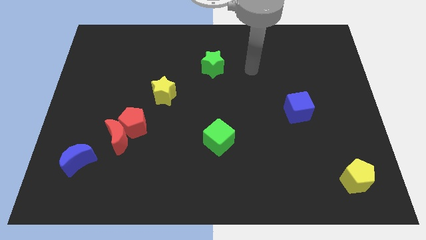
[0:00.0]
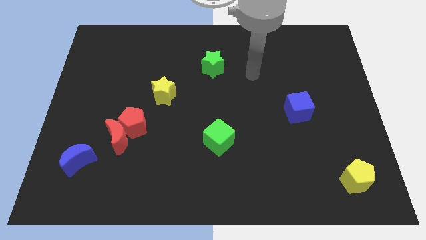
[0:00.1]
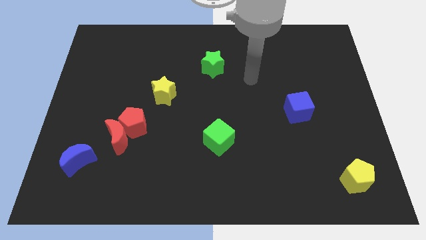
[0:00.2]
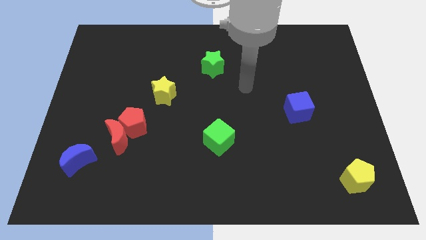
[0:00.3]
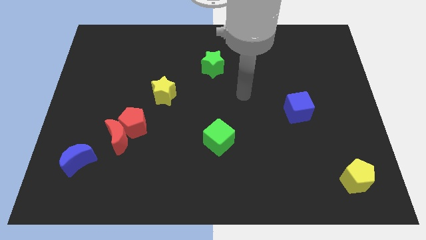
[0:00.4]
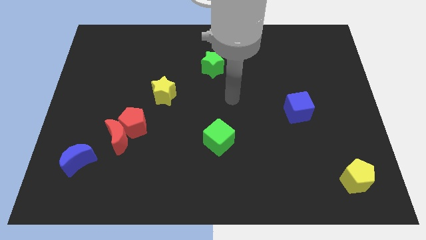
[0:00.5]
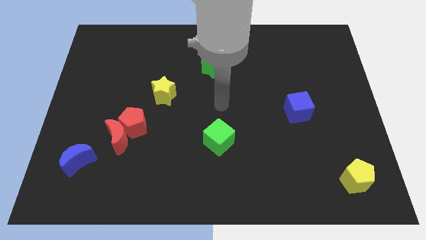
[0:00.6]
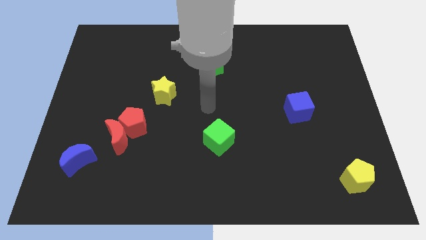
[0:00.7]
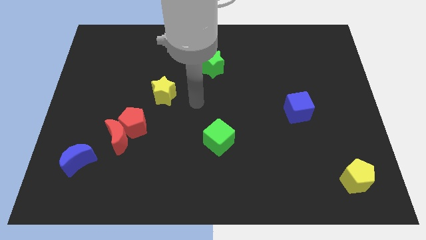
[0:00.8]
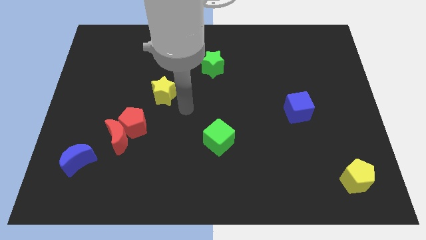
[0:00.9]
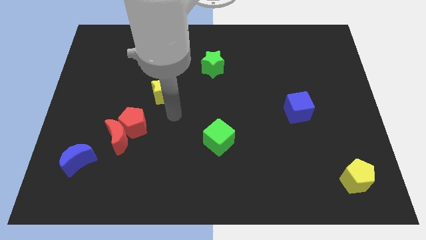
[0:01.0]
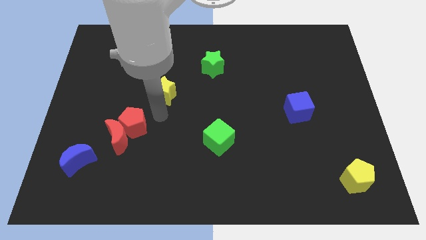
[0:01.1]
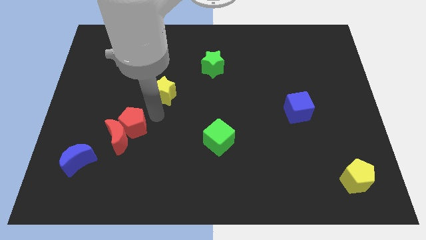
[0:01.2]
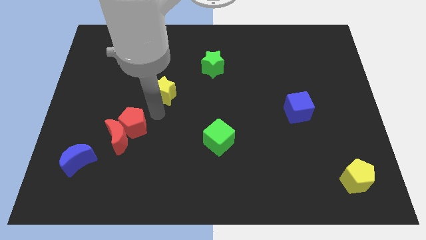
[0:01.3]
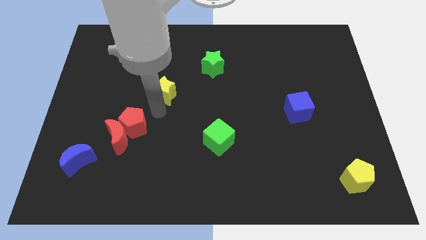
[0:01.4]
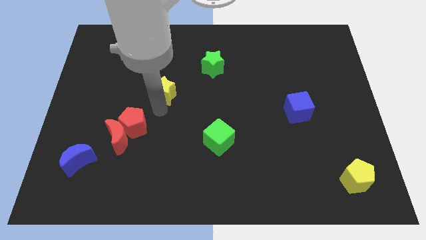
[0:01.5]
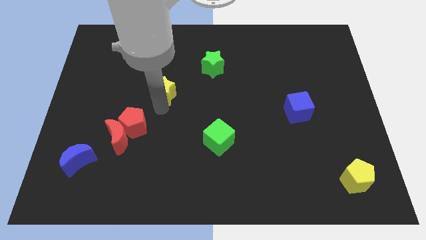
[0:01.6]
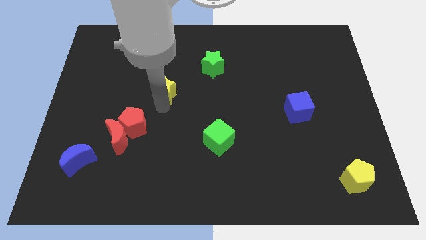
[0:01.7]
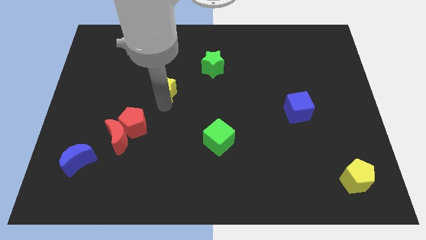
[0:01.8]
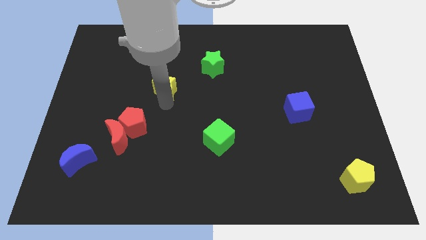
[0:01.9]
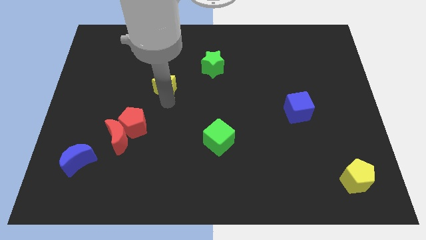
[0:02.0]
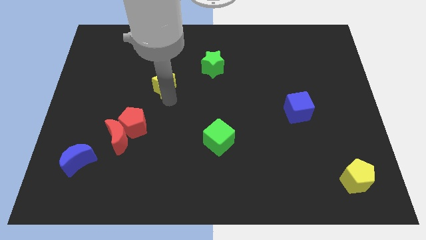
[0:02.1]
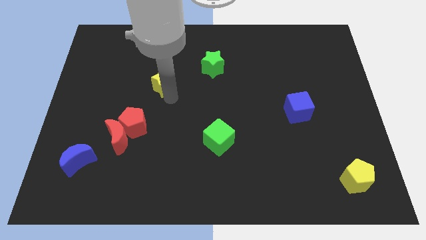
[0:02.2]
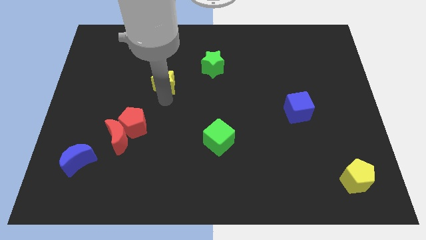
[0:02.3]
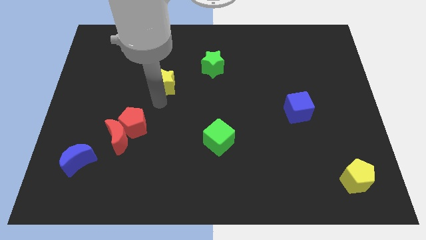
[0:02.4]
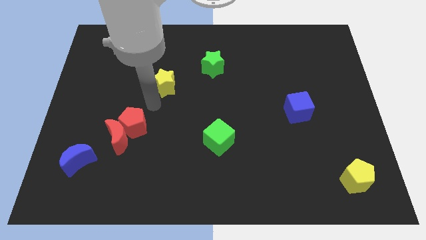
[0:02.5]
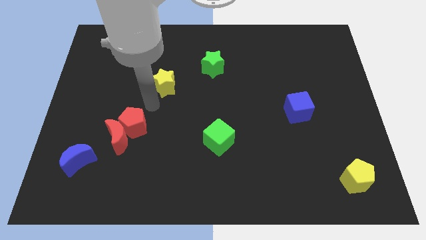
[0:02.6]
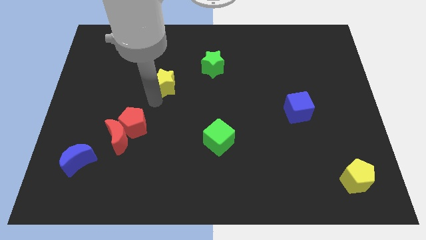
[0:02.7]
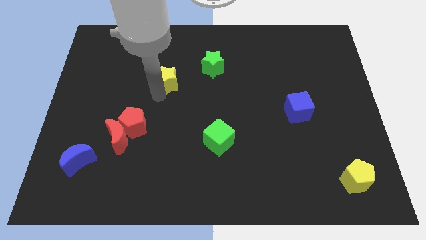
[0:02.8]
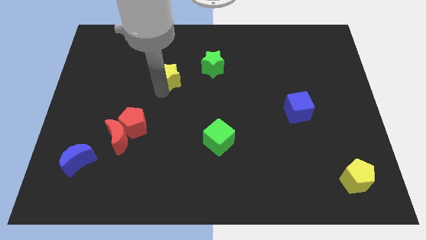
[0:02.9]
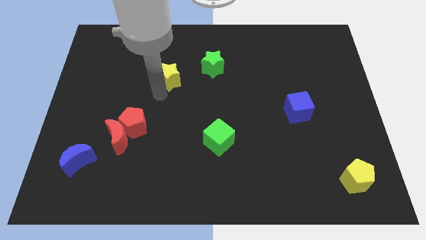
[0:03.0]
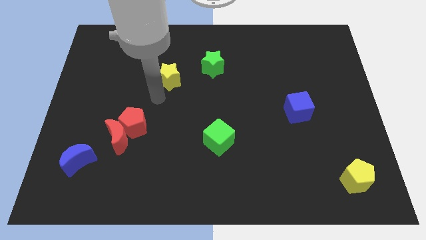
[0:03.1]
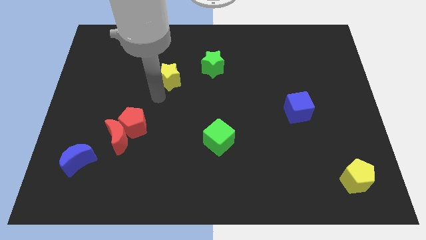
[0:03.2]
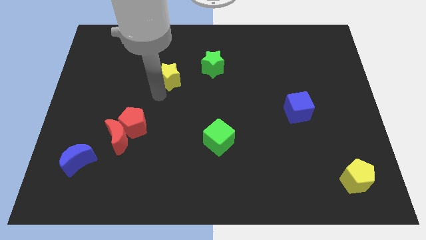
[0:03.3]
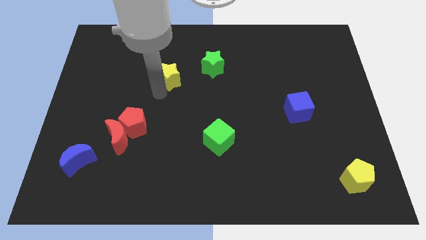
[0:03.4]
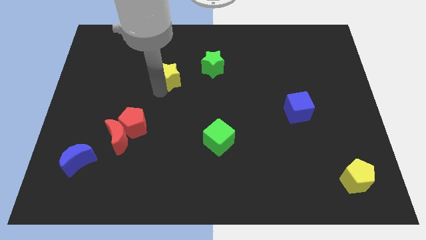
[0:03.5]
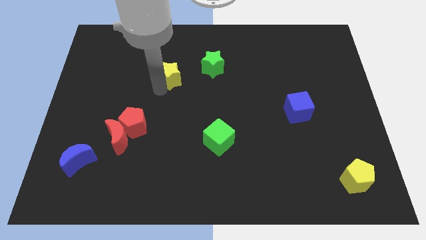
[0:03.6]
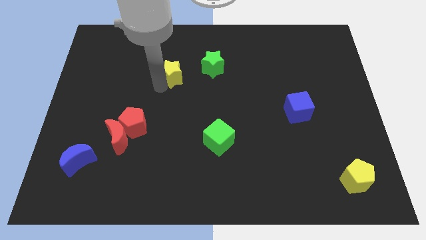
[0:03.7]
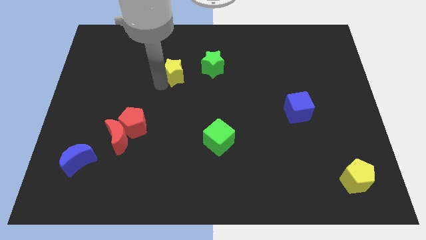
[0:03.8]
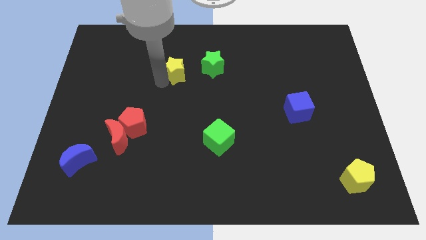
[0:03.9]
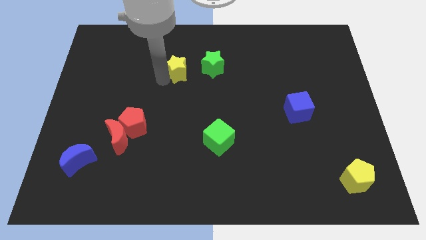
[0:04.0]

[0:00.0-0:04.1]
push the yellow star slightly upwards and right diagonally

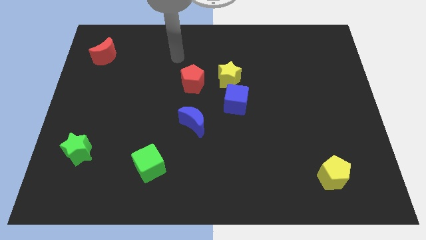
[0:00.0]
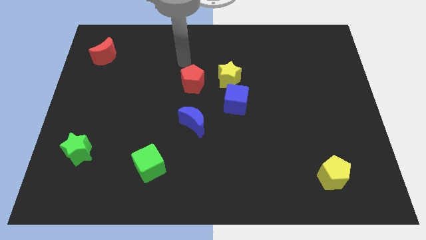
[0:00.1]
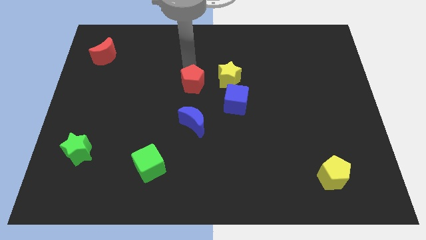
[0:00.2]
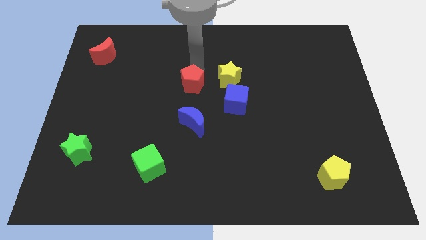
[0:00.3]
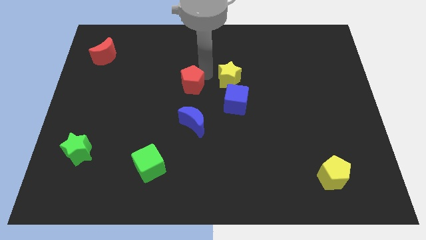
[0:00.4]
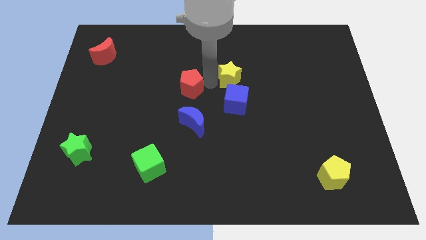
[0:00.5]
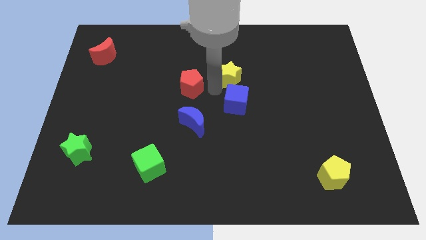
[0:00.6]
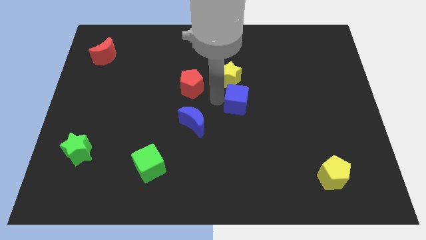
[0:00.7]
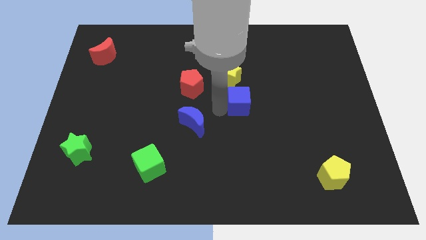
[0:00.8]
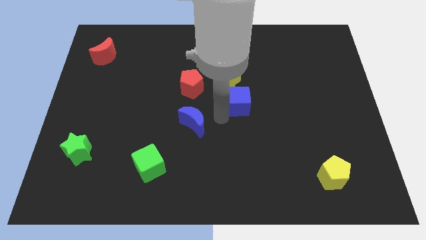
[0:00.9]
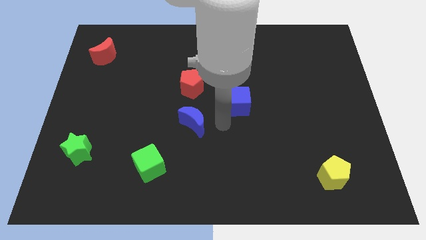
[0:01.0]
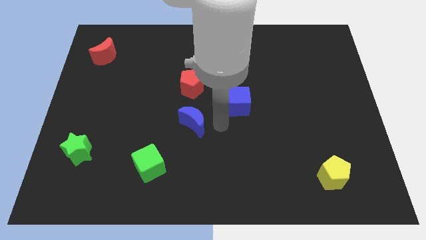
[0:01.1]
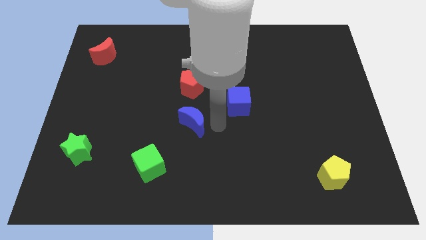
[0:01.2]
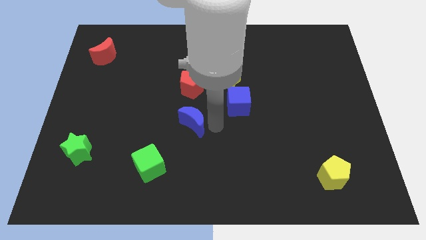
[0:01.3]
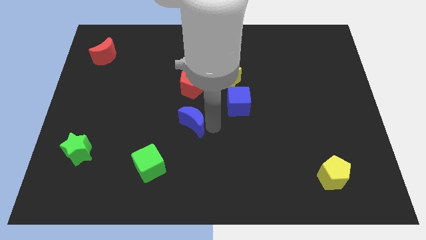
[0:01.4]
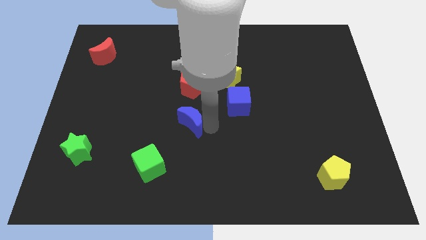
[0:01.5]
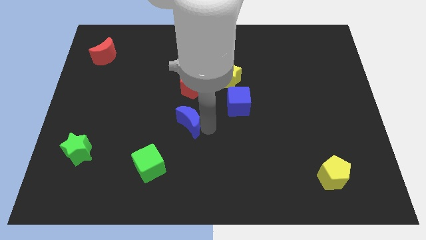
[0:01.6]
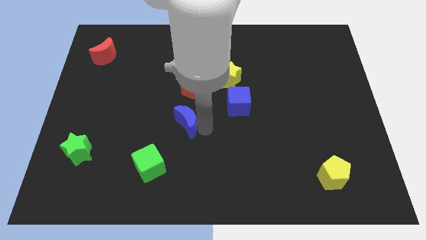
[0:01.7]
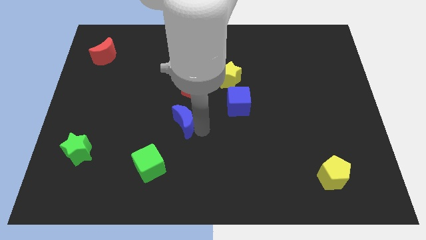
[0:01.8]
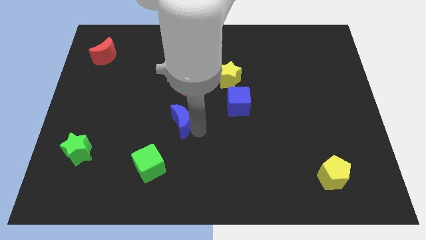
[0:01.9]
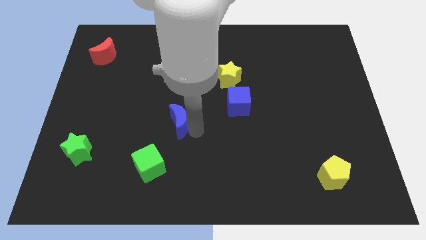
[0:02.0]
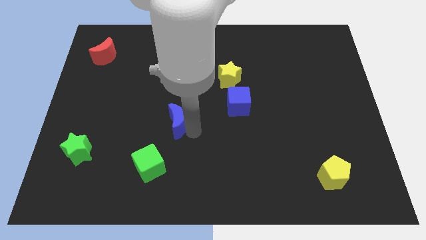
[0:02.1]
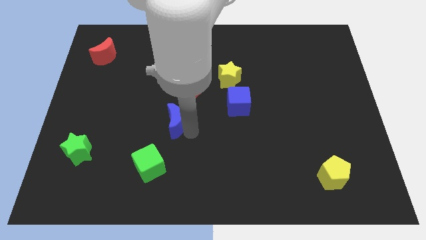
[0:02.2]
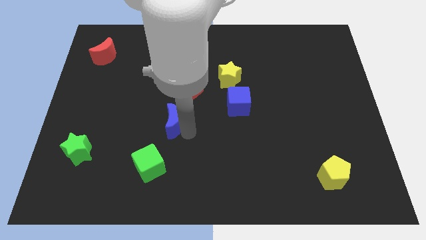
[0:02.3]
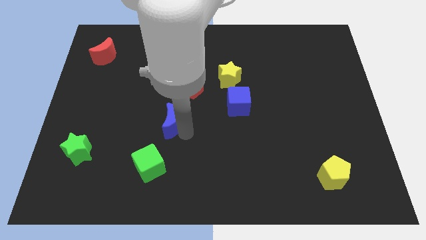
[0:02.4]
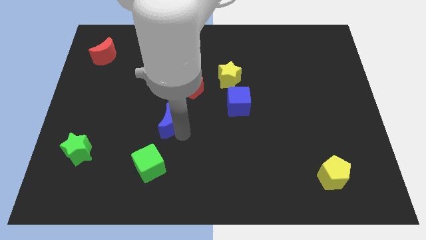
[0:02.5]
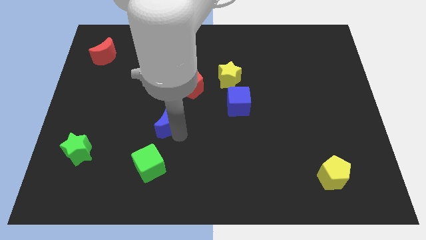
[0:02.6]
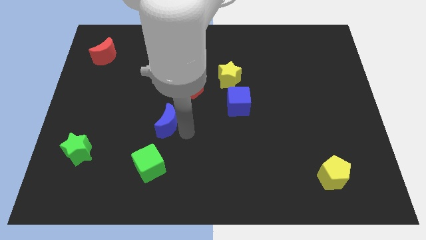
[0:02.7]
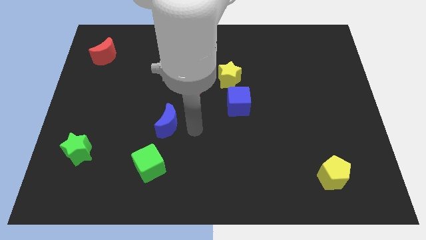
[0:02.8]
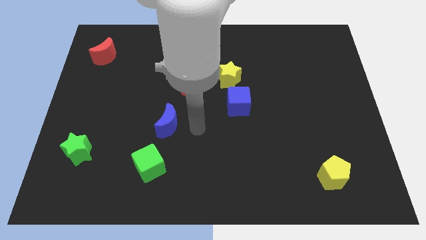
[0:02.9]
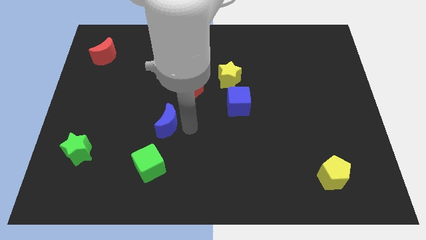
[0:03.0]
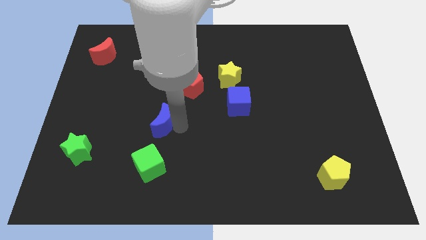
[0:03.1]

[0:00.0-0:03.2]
push the blue moon to the left a little

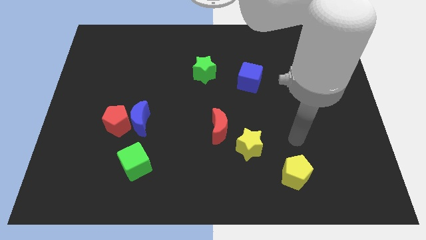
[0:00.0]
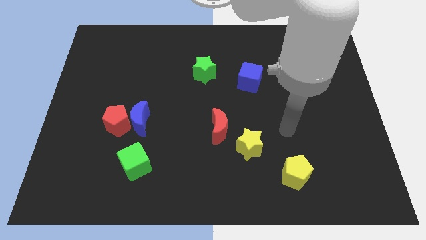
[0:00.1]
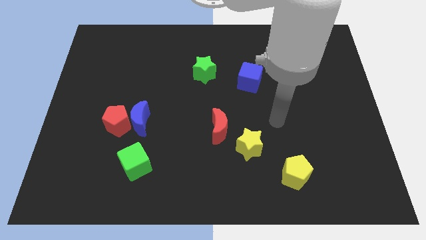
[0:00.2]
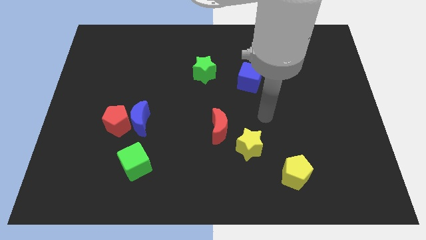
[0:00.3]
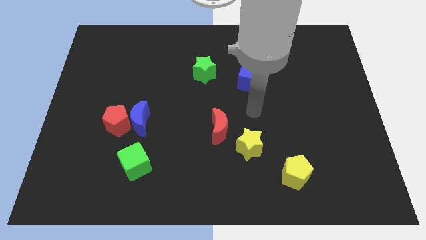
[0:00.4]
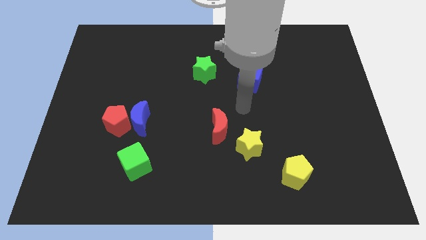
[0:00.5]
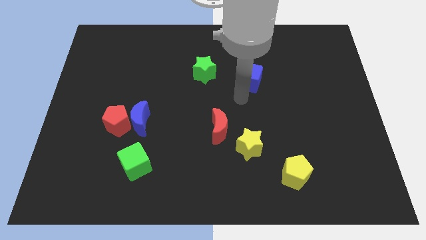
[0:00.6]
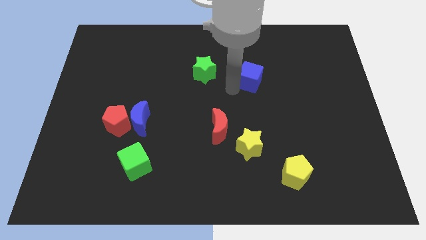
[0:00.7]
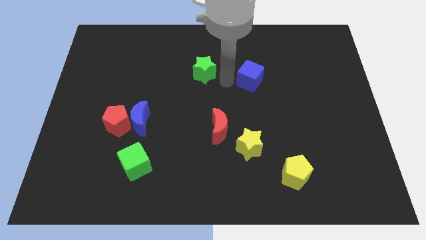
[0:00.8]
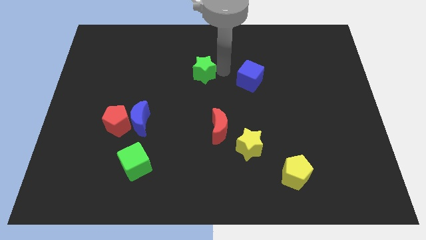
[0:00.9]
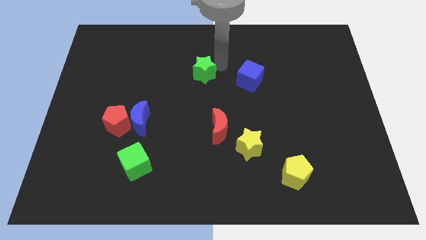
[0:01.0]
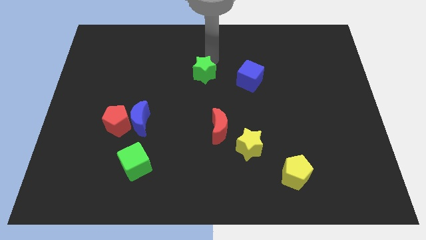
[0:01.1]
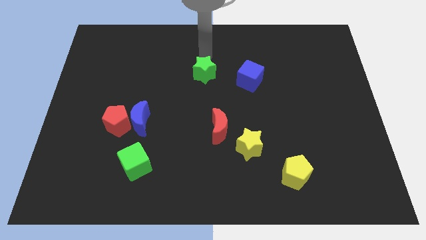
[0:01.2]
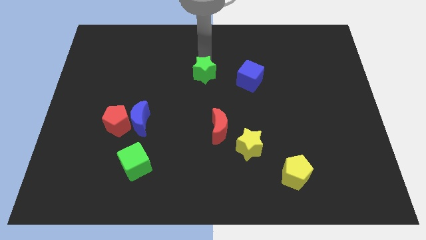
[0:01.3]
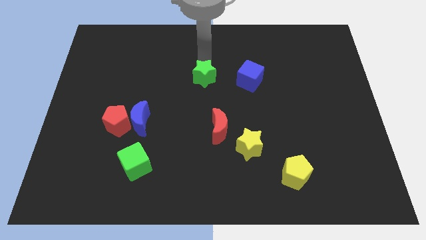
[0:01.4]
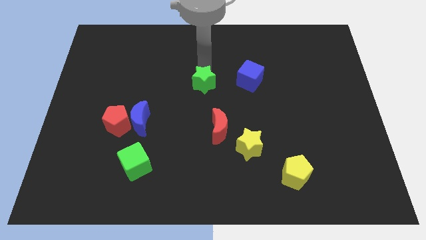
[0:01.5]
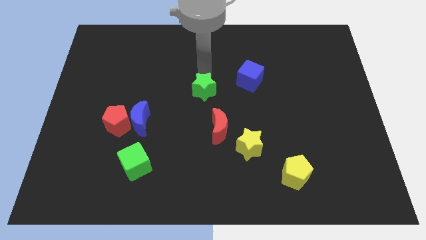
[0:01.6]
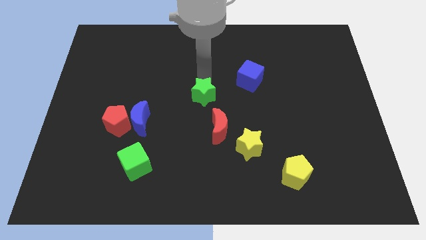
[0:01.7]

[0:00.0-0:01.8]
slightly move the green star downwards
